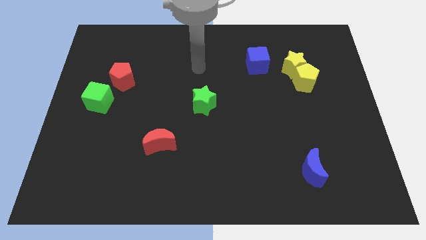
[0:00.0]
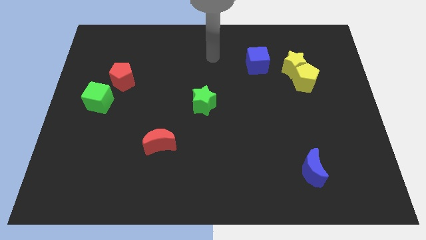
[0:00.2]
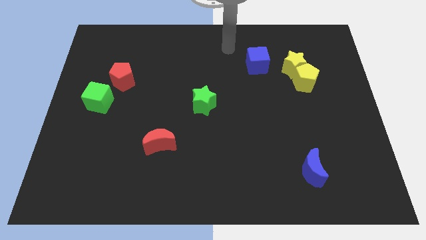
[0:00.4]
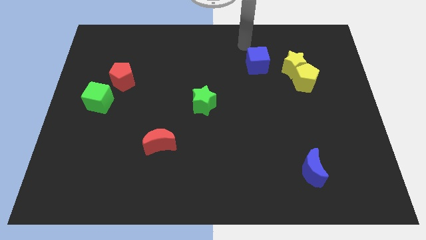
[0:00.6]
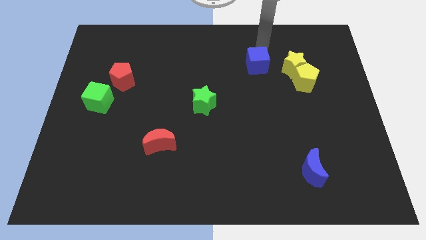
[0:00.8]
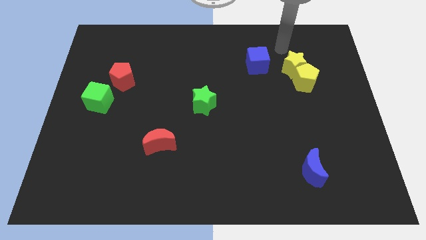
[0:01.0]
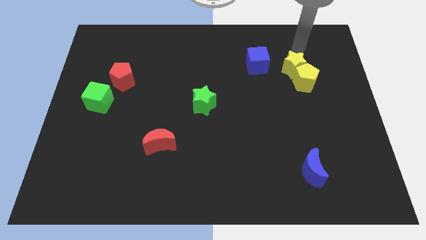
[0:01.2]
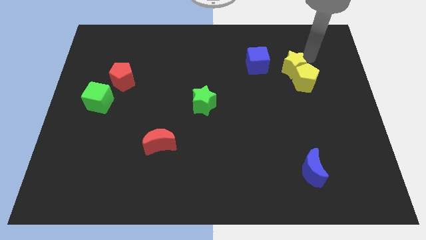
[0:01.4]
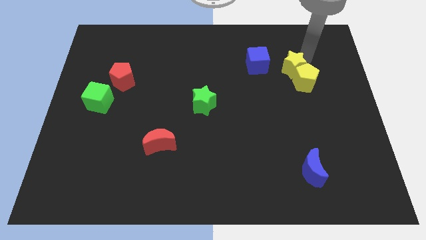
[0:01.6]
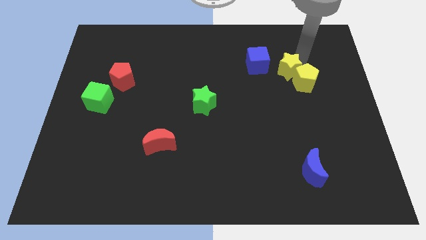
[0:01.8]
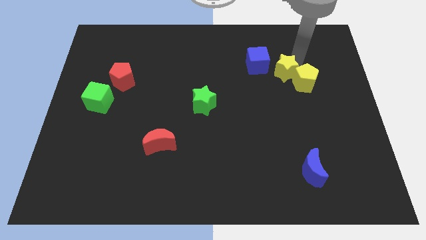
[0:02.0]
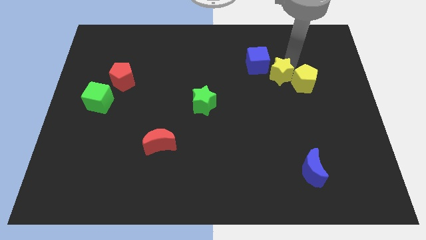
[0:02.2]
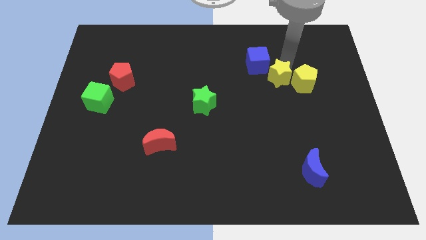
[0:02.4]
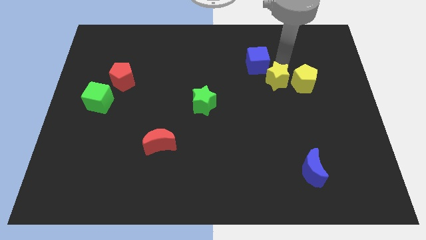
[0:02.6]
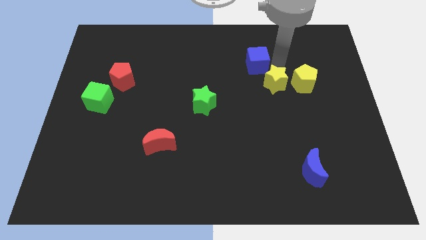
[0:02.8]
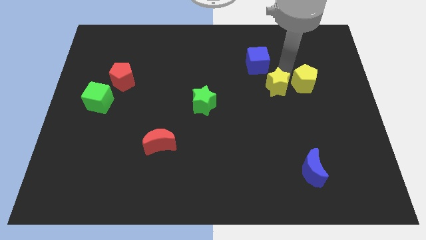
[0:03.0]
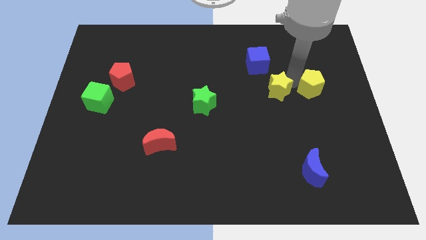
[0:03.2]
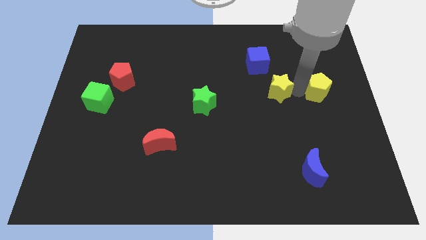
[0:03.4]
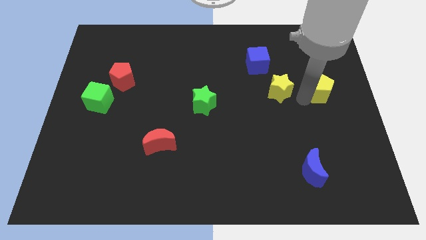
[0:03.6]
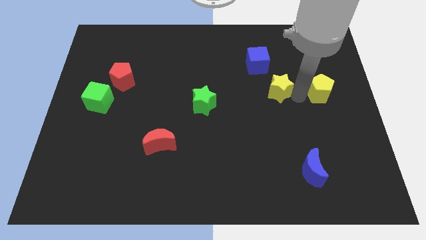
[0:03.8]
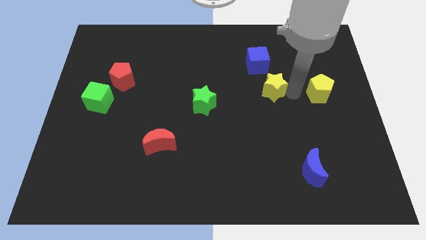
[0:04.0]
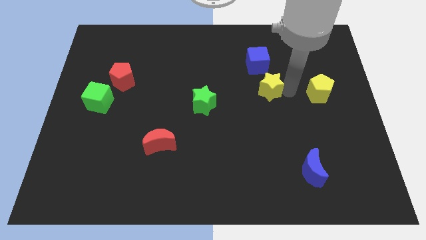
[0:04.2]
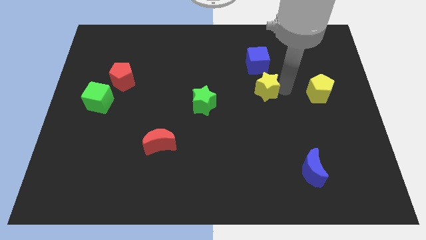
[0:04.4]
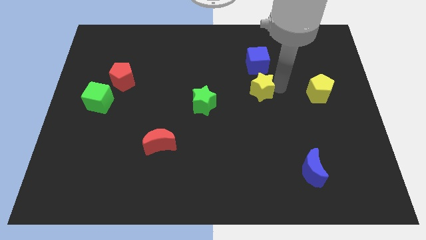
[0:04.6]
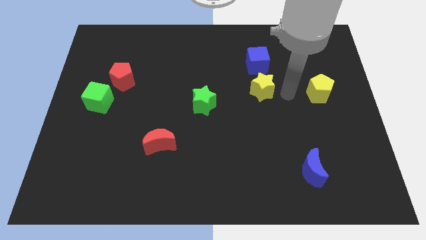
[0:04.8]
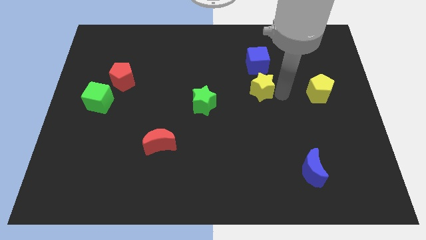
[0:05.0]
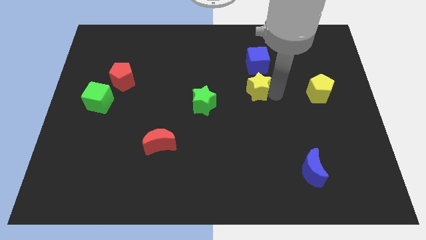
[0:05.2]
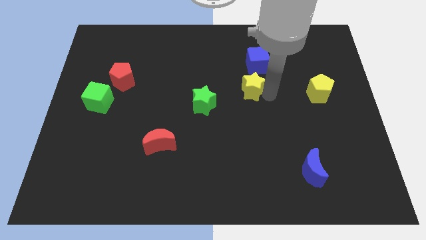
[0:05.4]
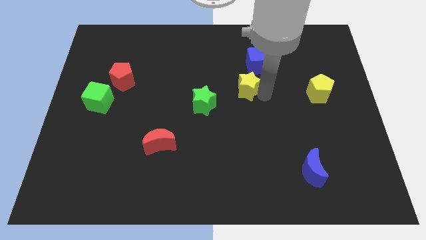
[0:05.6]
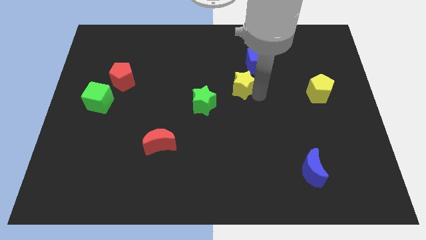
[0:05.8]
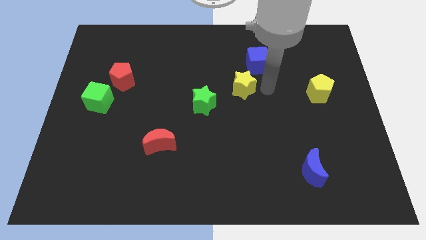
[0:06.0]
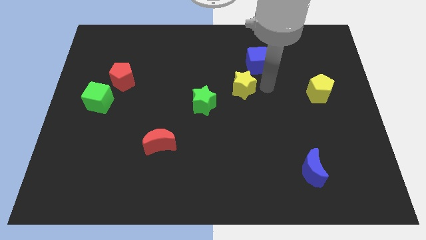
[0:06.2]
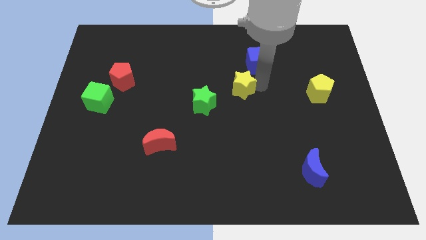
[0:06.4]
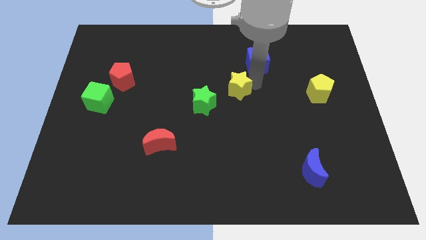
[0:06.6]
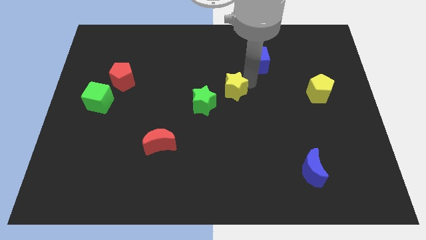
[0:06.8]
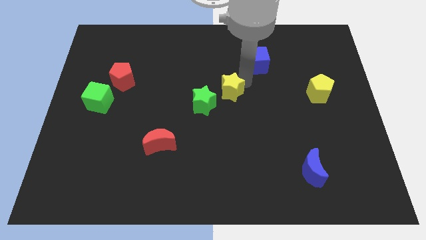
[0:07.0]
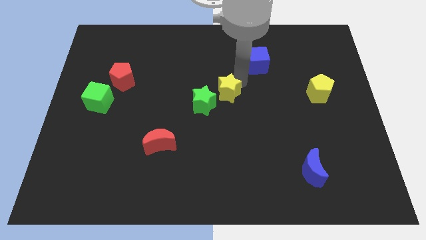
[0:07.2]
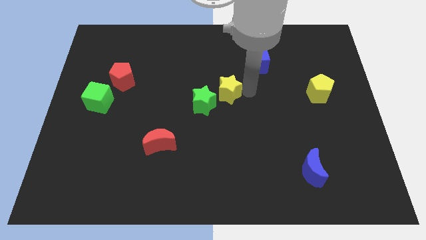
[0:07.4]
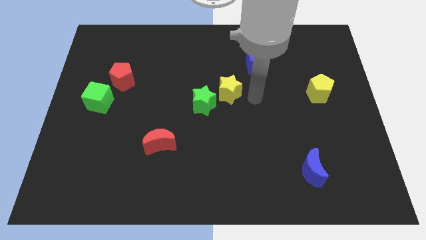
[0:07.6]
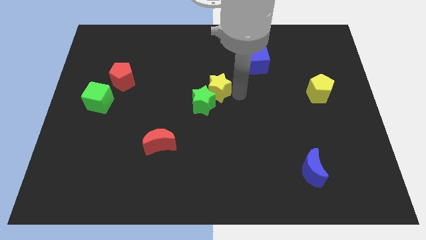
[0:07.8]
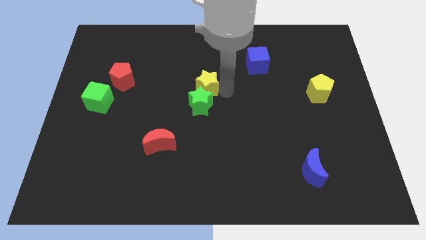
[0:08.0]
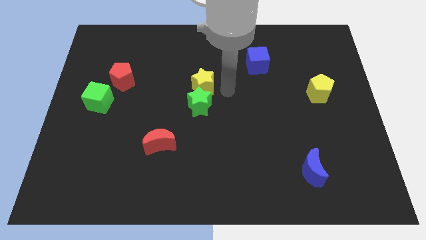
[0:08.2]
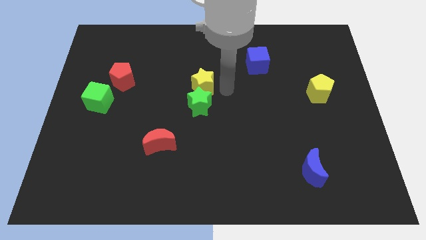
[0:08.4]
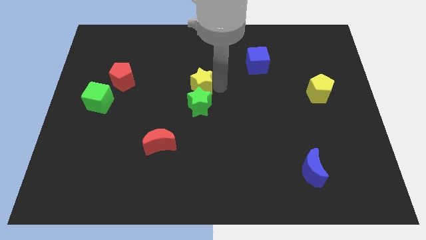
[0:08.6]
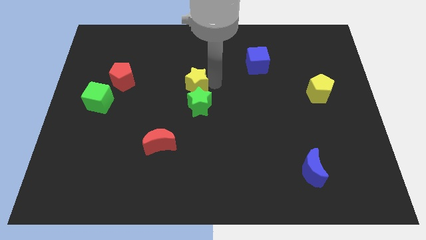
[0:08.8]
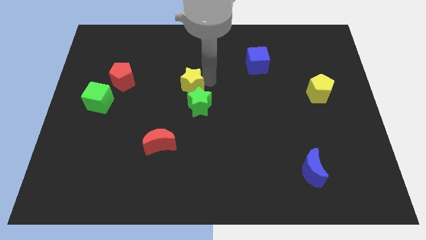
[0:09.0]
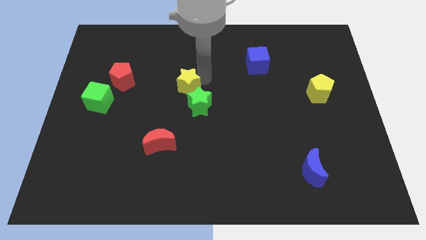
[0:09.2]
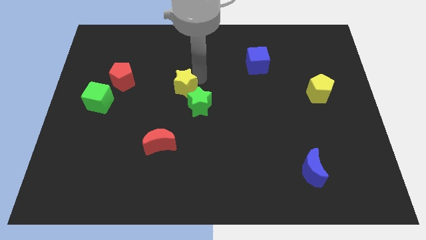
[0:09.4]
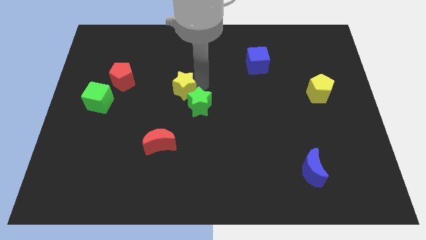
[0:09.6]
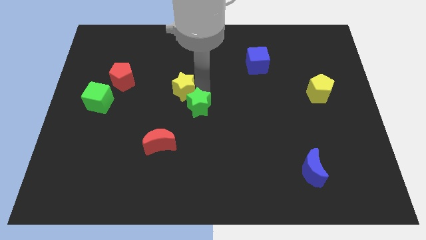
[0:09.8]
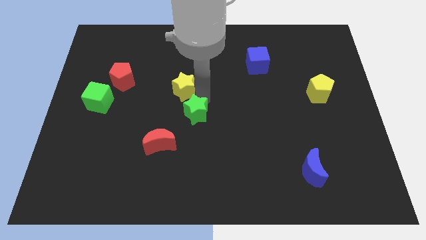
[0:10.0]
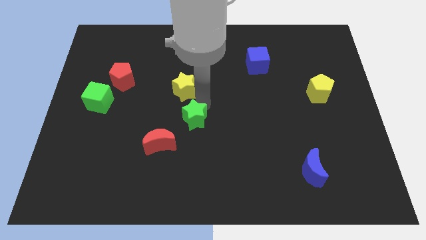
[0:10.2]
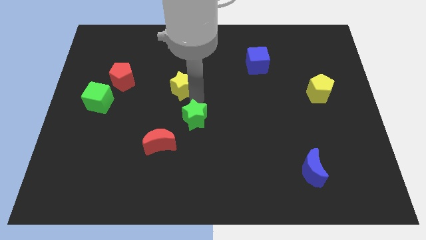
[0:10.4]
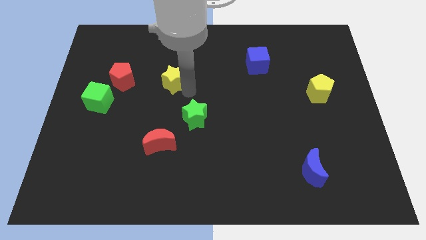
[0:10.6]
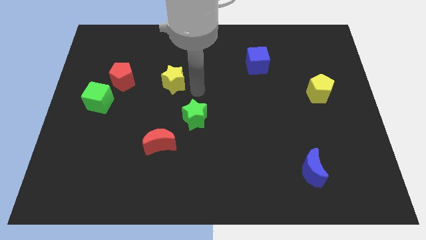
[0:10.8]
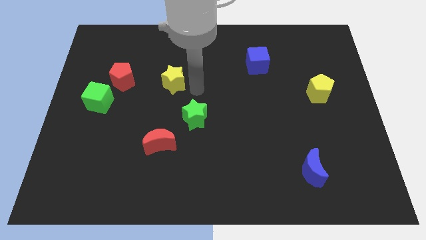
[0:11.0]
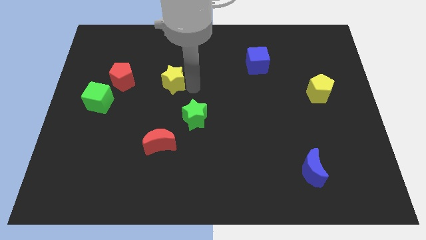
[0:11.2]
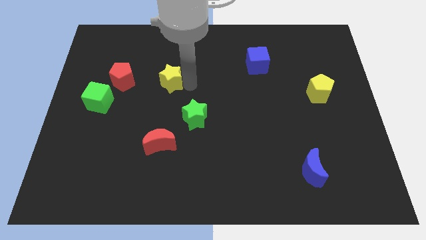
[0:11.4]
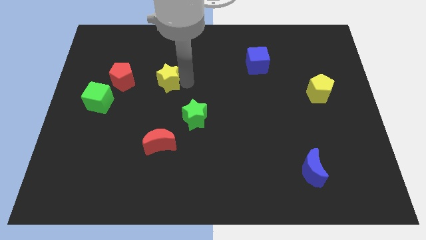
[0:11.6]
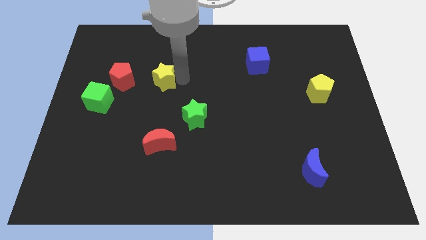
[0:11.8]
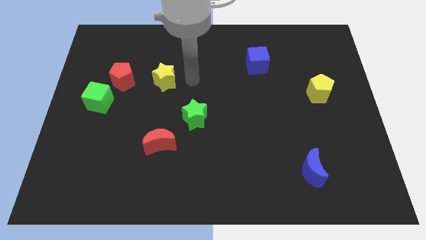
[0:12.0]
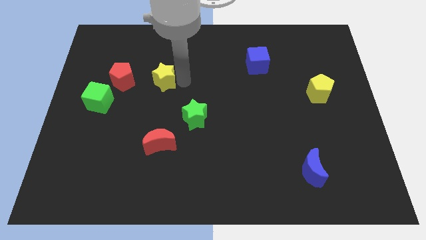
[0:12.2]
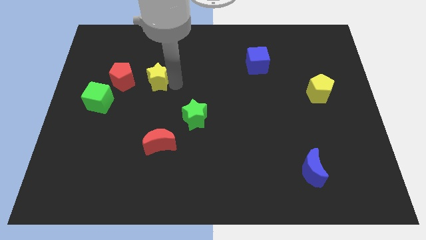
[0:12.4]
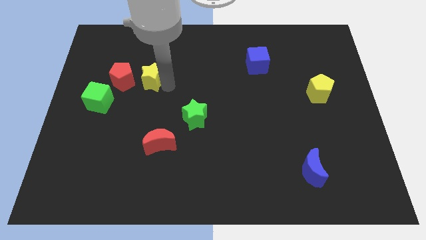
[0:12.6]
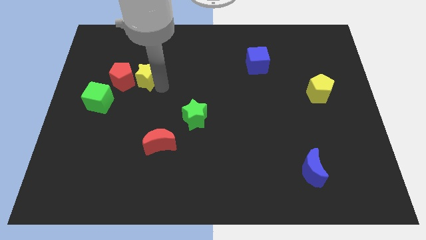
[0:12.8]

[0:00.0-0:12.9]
push the yellow star close to the red pentagon

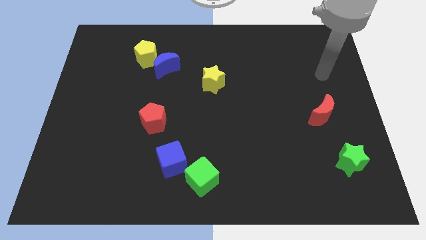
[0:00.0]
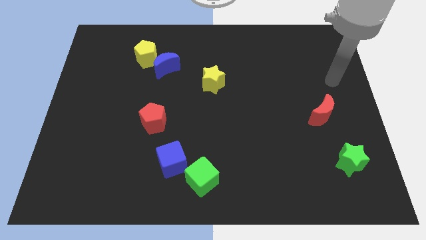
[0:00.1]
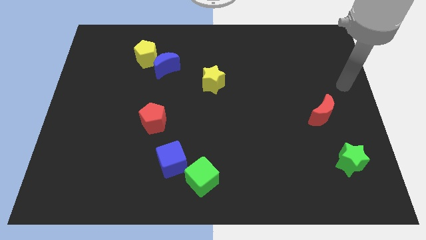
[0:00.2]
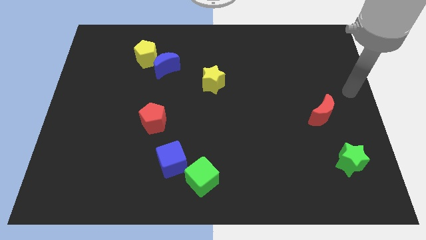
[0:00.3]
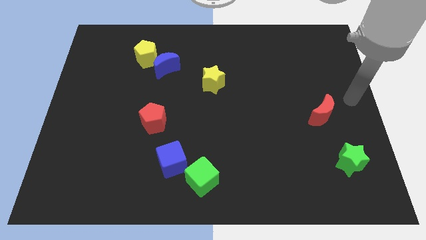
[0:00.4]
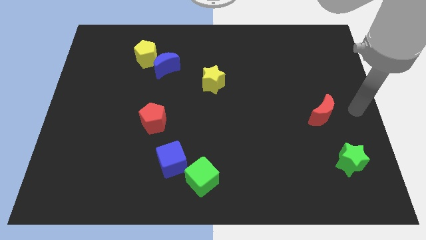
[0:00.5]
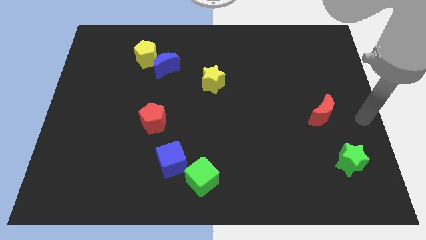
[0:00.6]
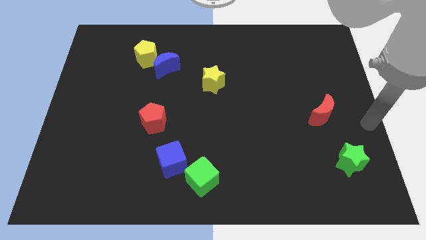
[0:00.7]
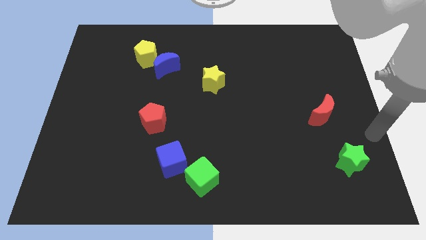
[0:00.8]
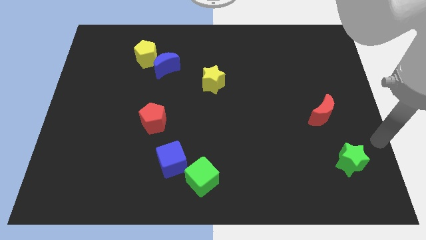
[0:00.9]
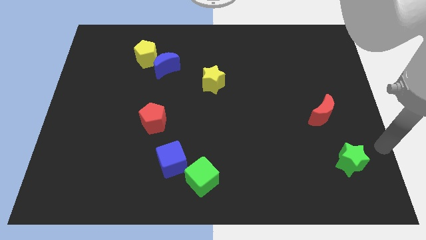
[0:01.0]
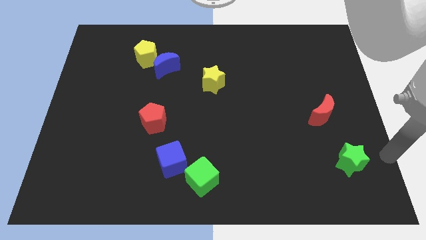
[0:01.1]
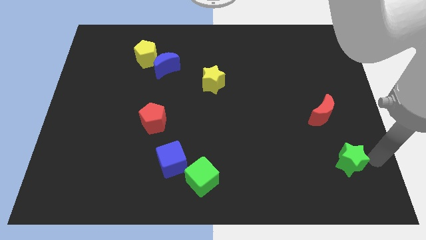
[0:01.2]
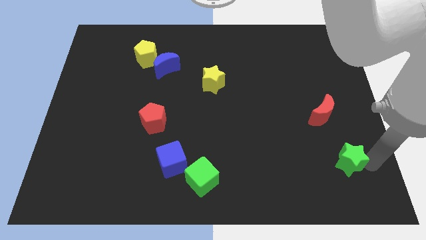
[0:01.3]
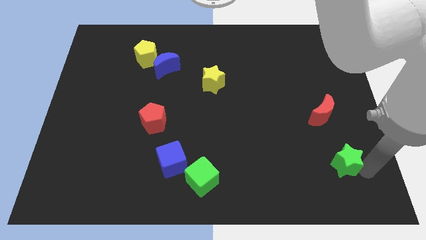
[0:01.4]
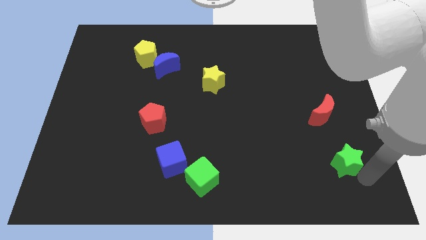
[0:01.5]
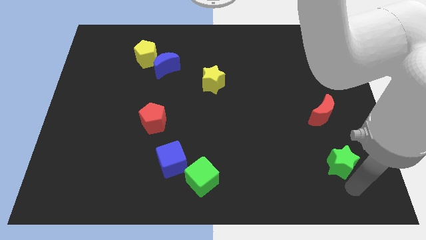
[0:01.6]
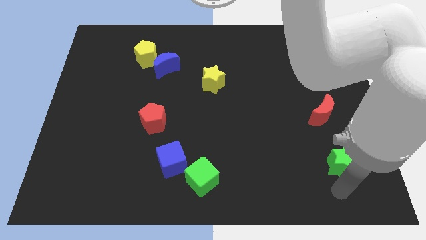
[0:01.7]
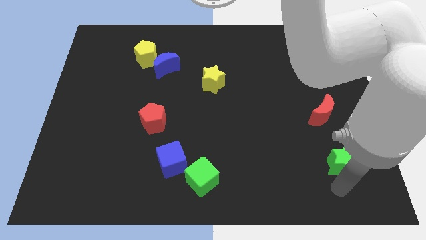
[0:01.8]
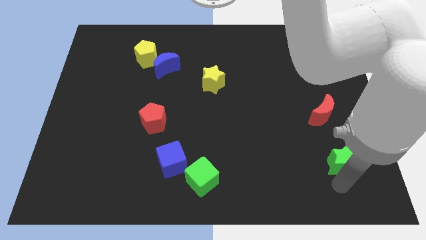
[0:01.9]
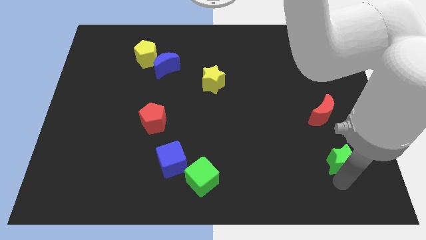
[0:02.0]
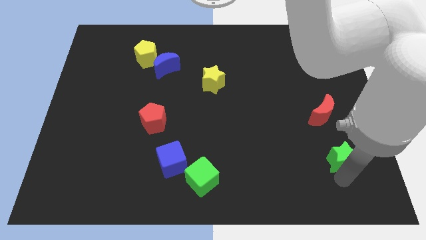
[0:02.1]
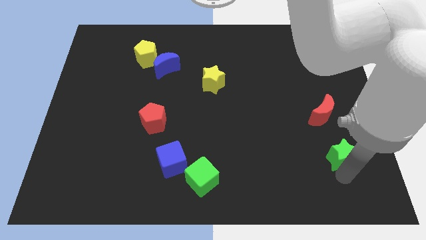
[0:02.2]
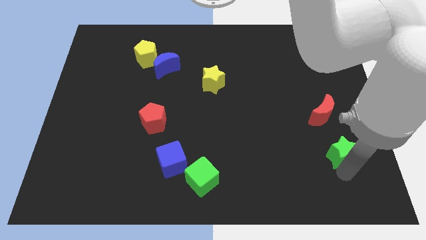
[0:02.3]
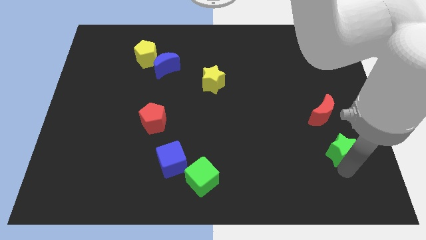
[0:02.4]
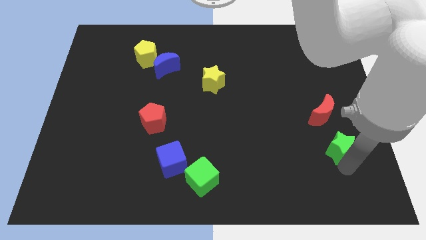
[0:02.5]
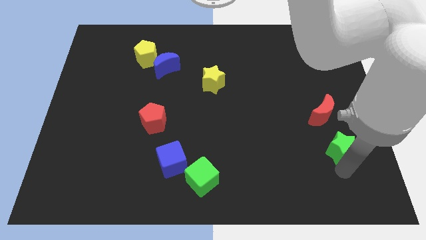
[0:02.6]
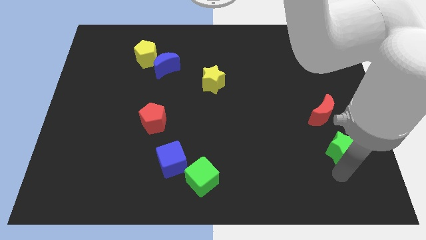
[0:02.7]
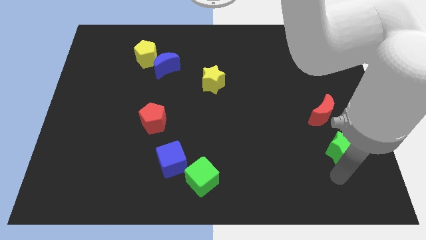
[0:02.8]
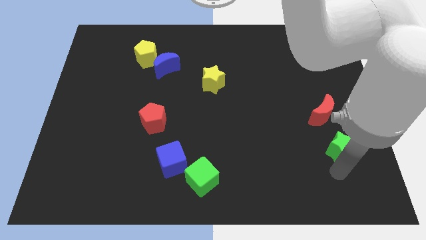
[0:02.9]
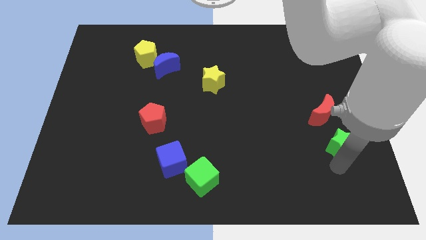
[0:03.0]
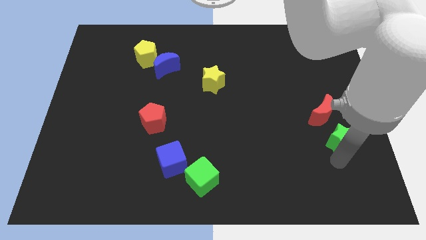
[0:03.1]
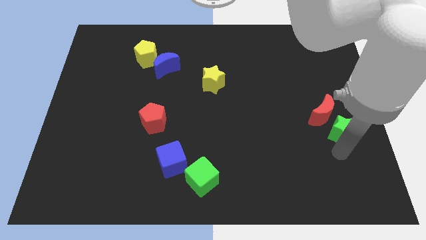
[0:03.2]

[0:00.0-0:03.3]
slide the green star towards the red moon
